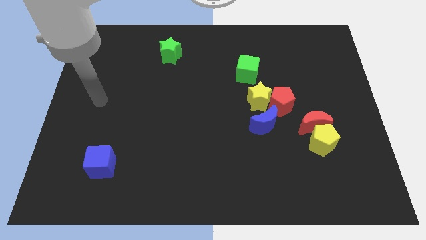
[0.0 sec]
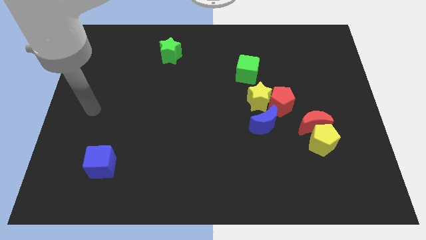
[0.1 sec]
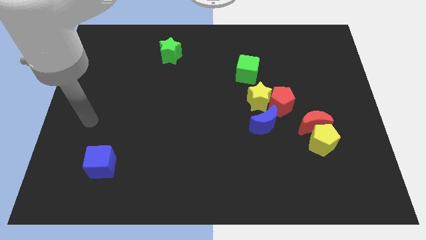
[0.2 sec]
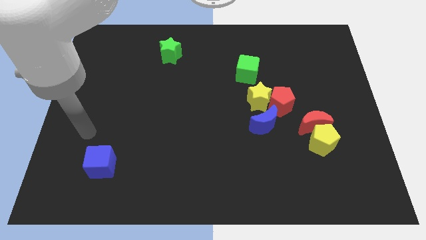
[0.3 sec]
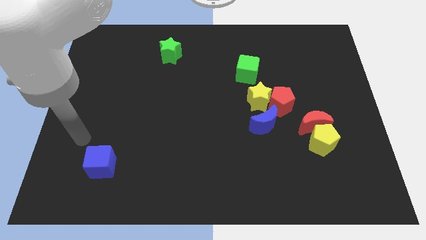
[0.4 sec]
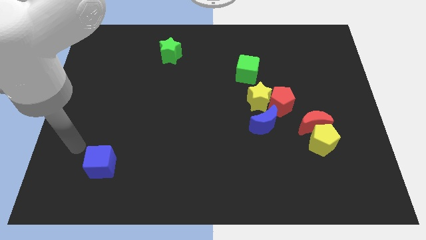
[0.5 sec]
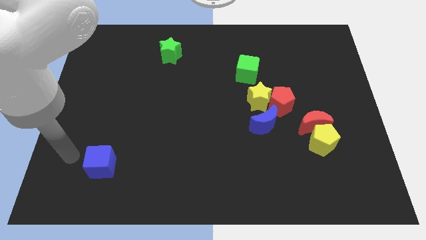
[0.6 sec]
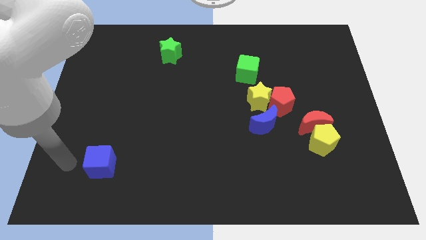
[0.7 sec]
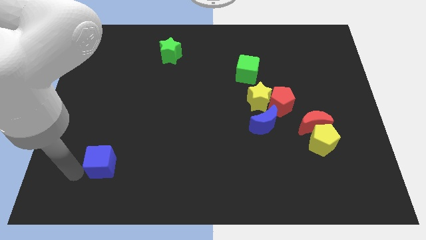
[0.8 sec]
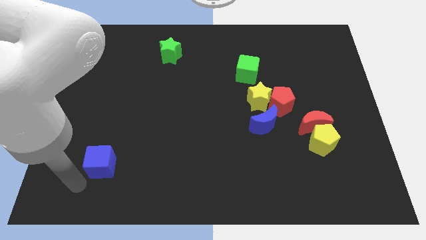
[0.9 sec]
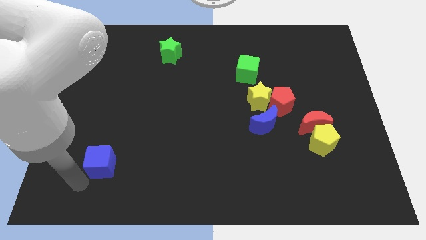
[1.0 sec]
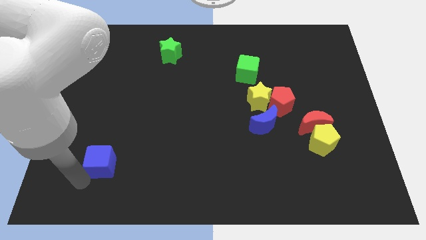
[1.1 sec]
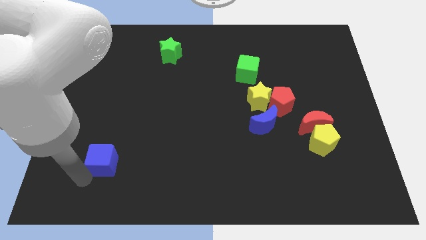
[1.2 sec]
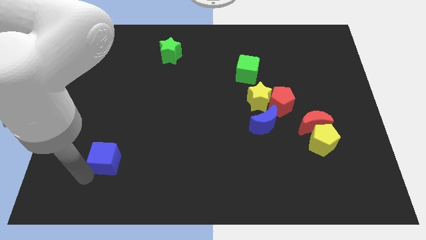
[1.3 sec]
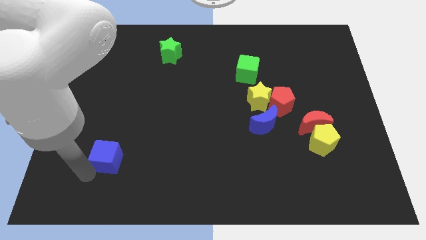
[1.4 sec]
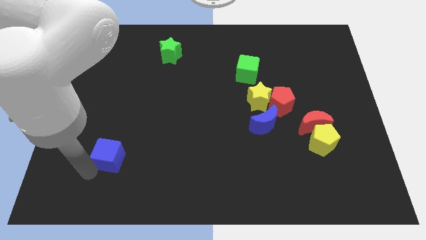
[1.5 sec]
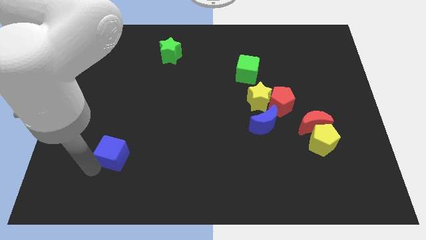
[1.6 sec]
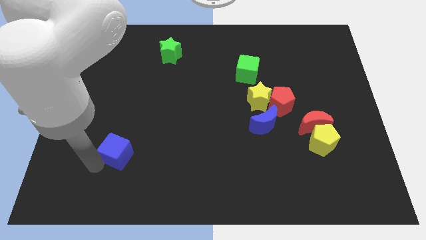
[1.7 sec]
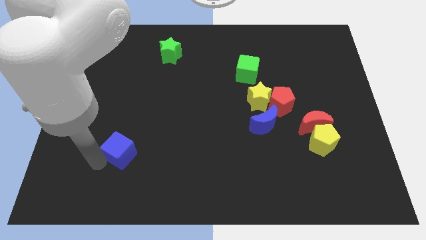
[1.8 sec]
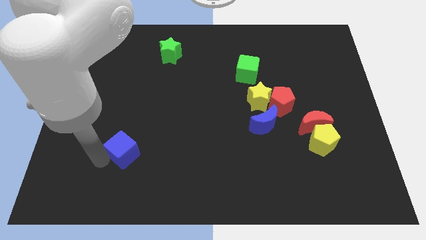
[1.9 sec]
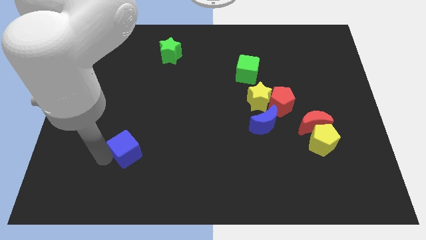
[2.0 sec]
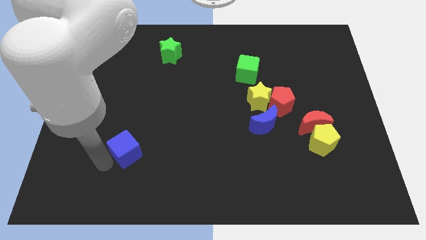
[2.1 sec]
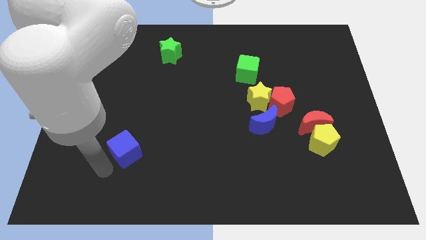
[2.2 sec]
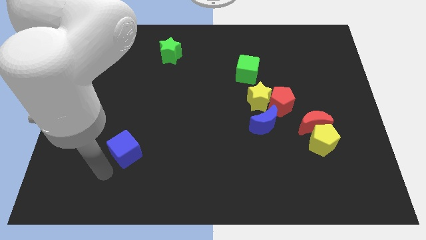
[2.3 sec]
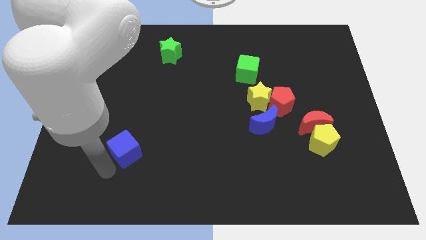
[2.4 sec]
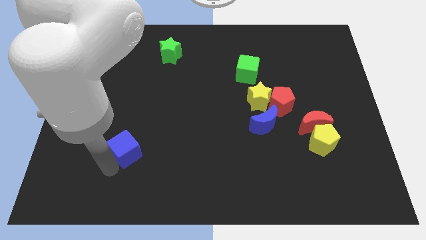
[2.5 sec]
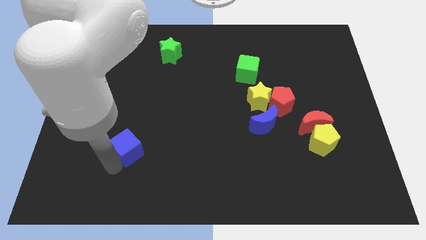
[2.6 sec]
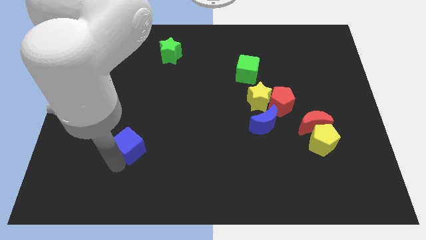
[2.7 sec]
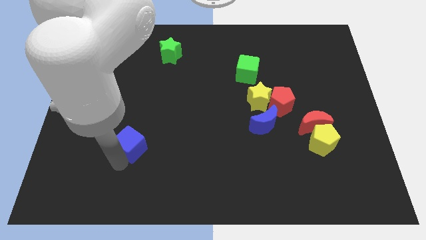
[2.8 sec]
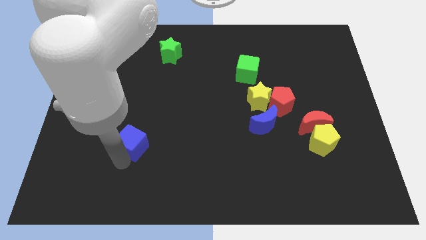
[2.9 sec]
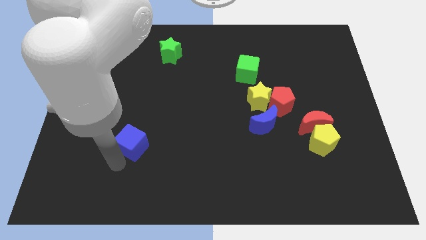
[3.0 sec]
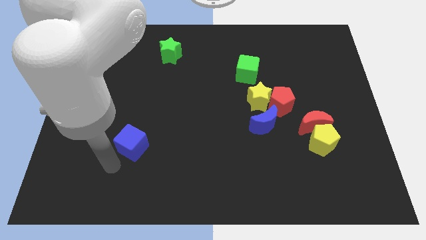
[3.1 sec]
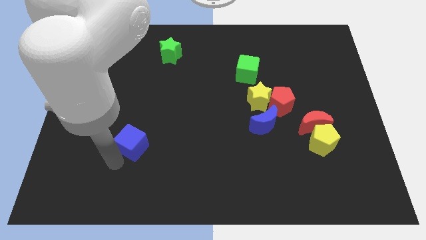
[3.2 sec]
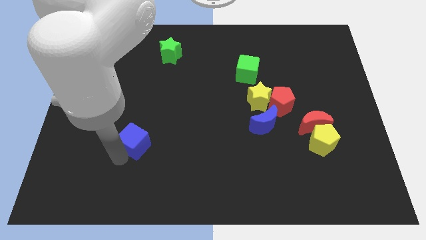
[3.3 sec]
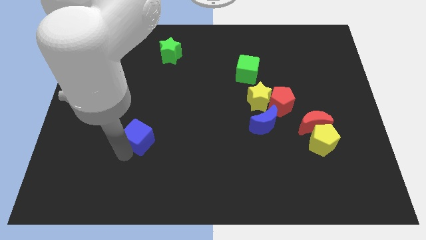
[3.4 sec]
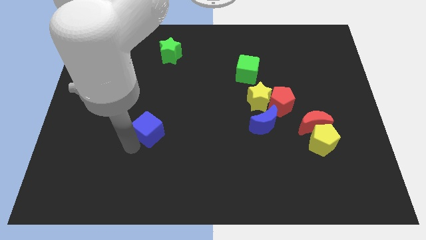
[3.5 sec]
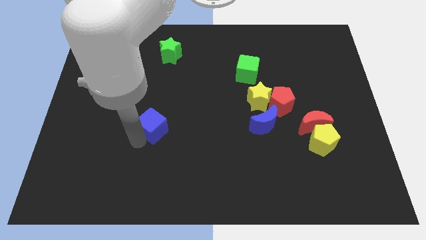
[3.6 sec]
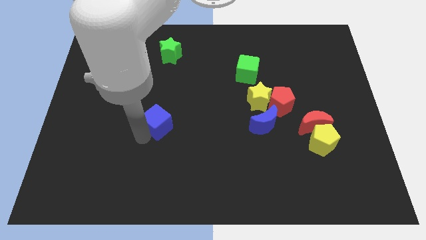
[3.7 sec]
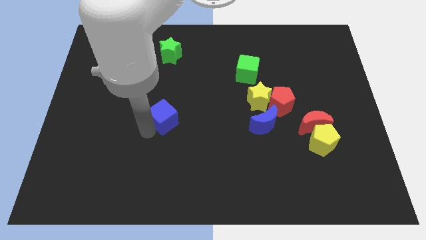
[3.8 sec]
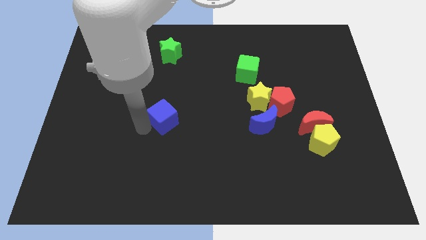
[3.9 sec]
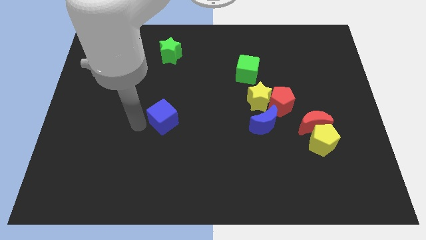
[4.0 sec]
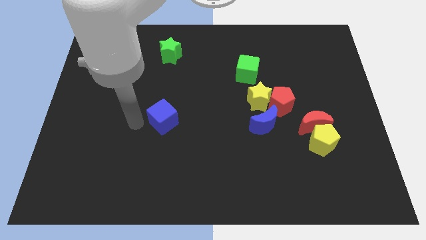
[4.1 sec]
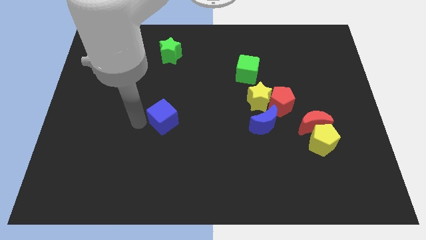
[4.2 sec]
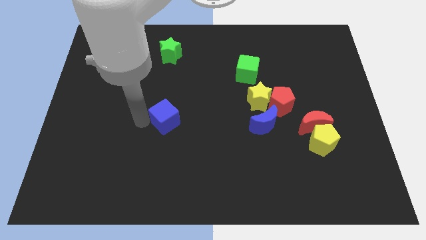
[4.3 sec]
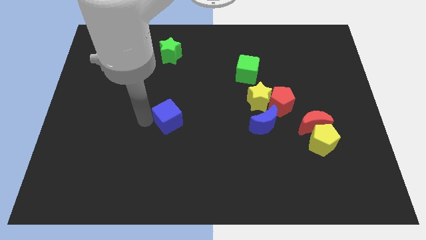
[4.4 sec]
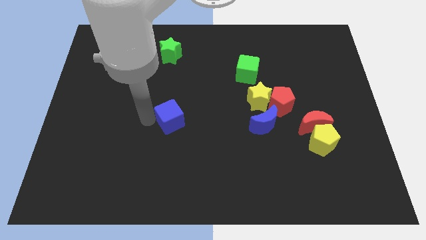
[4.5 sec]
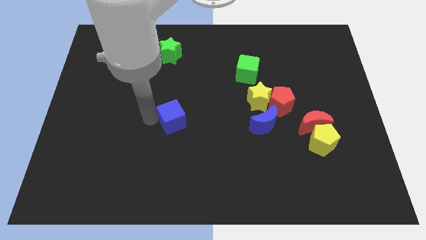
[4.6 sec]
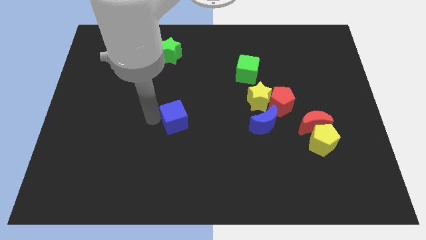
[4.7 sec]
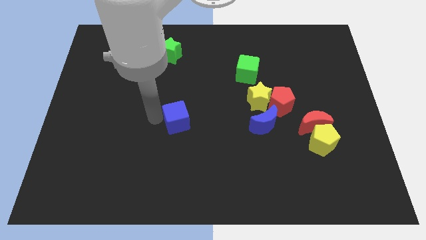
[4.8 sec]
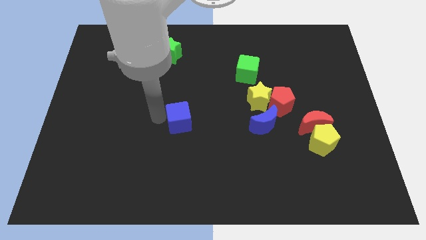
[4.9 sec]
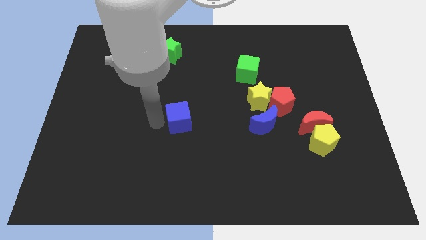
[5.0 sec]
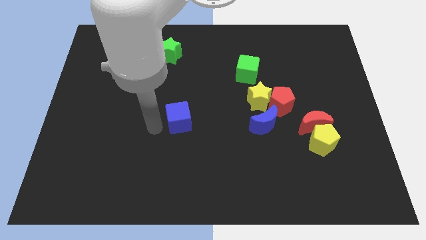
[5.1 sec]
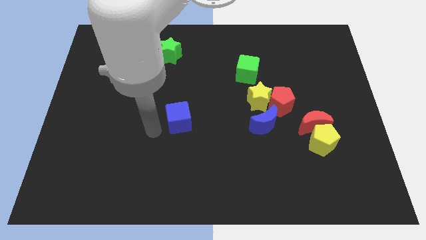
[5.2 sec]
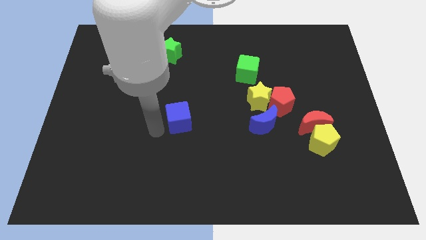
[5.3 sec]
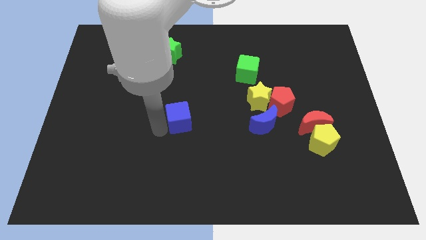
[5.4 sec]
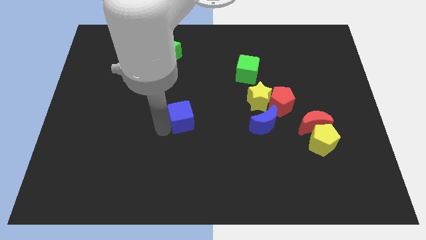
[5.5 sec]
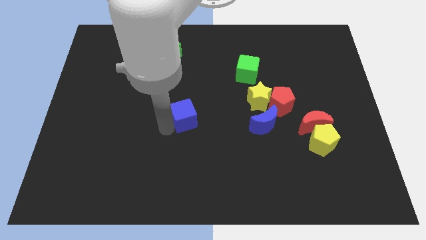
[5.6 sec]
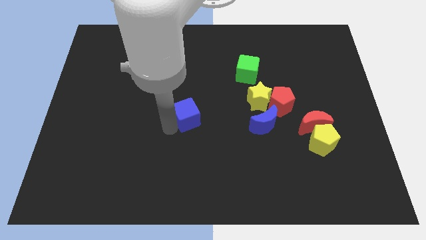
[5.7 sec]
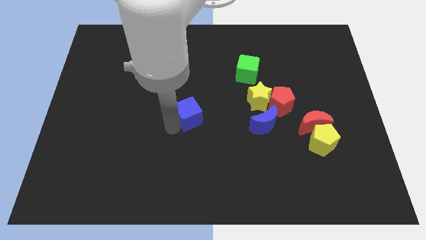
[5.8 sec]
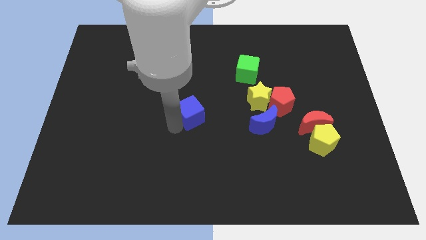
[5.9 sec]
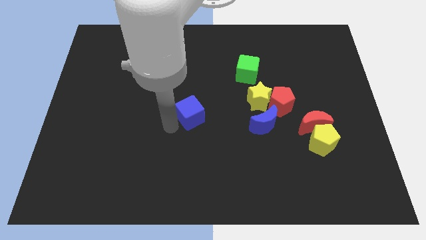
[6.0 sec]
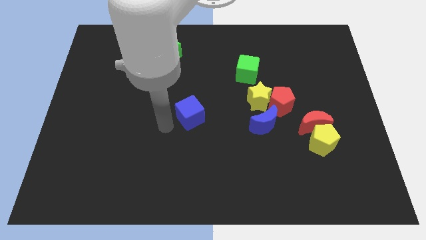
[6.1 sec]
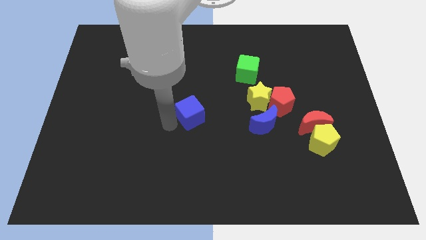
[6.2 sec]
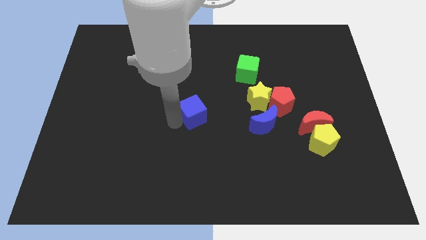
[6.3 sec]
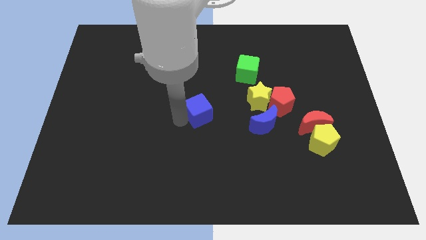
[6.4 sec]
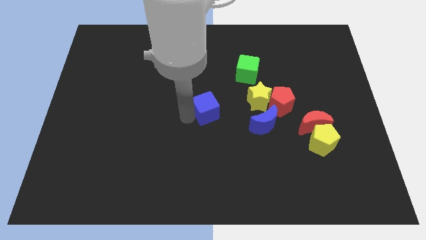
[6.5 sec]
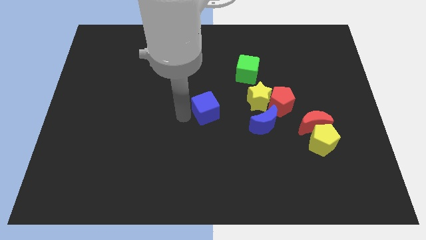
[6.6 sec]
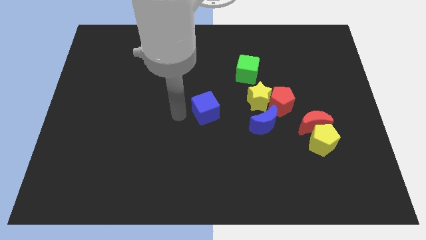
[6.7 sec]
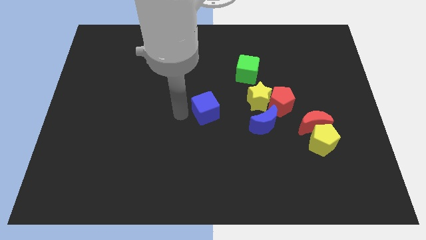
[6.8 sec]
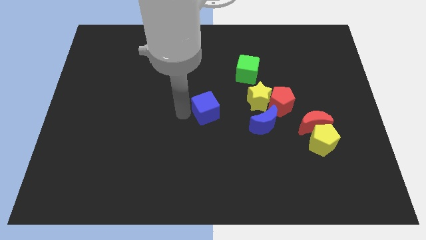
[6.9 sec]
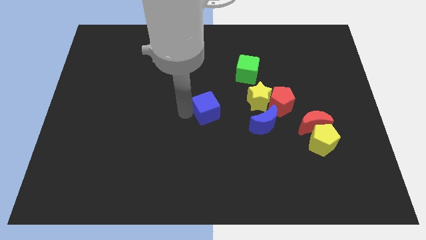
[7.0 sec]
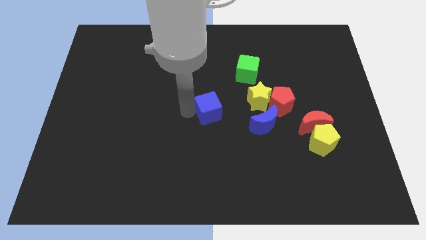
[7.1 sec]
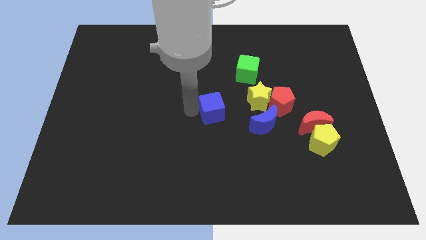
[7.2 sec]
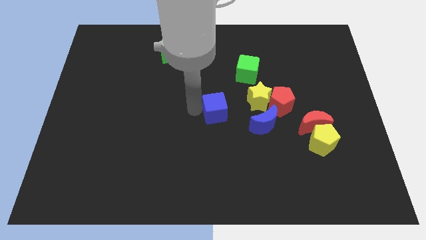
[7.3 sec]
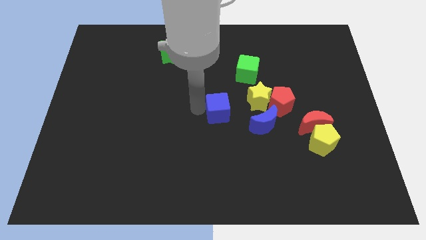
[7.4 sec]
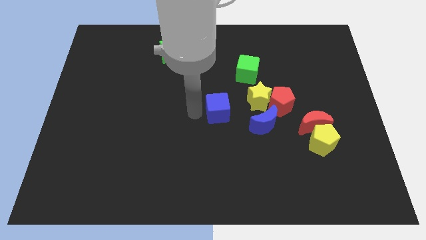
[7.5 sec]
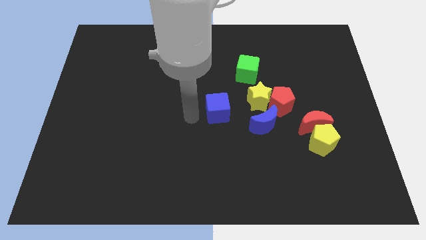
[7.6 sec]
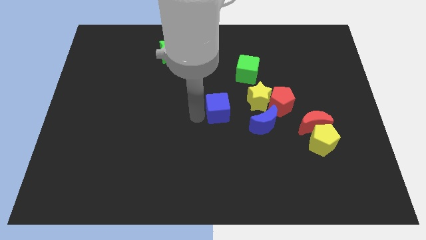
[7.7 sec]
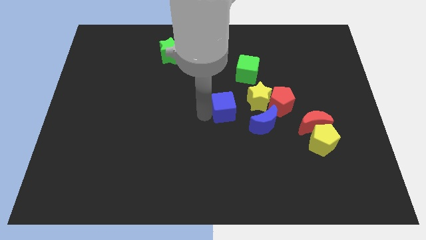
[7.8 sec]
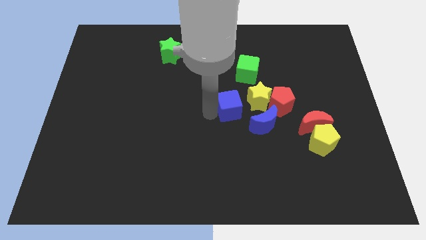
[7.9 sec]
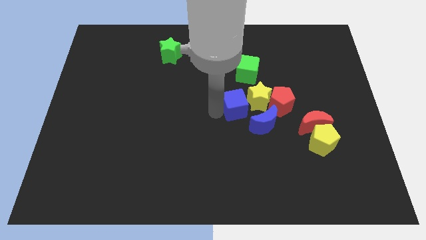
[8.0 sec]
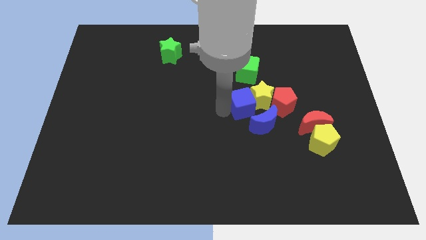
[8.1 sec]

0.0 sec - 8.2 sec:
push the blue cube close to the yellow star
